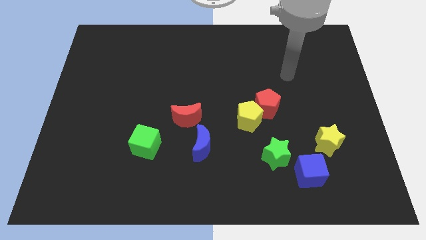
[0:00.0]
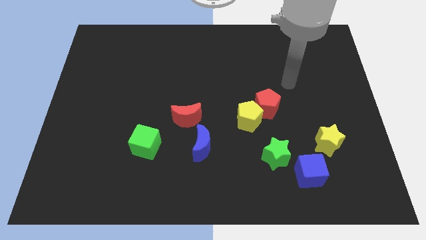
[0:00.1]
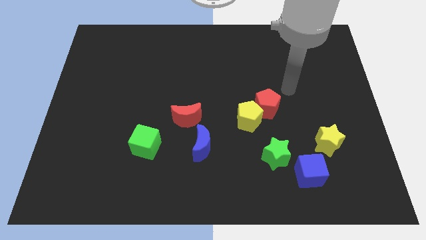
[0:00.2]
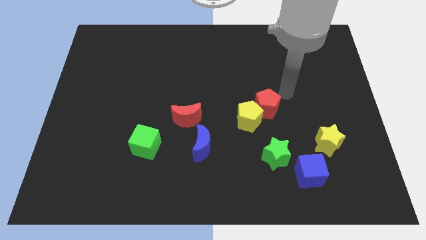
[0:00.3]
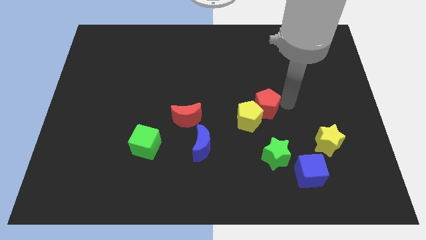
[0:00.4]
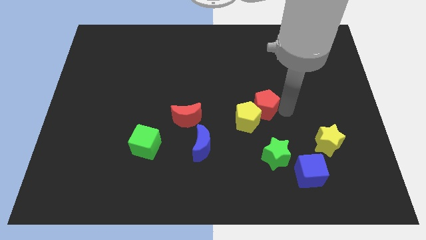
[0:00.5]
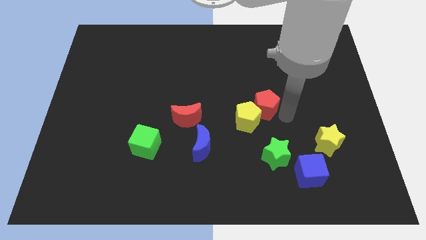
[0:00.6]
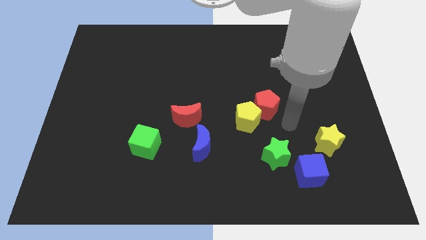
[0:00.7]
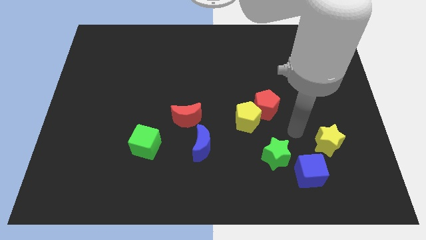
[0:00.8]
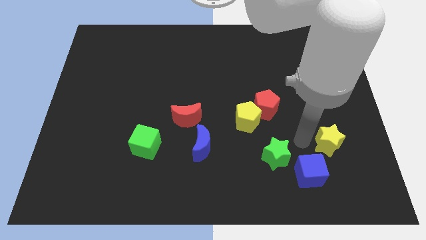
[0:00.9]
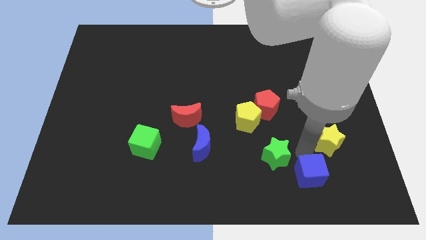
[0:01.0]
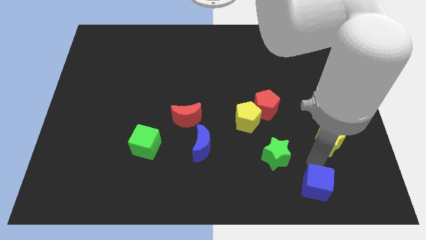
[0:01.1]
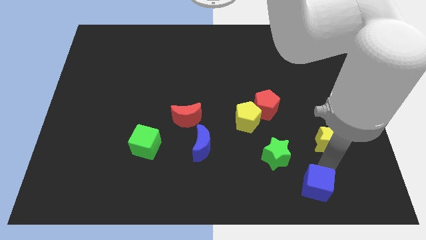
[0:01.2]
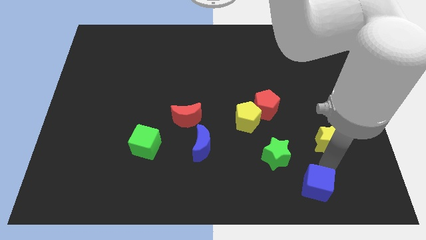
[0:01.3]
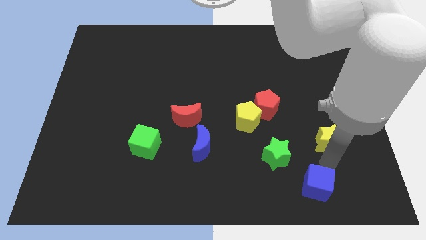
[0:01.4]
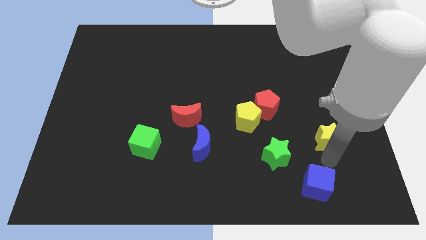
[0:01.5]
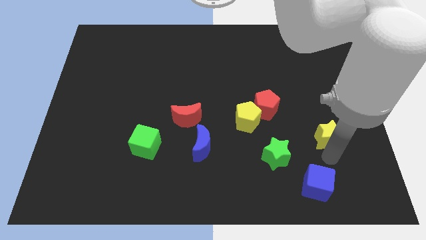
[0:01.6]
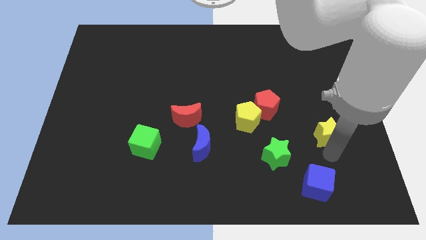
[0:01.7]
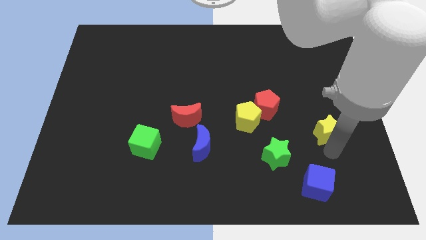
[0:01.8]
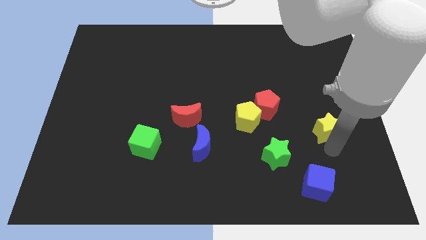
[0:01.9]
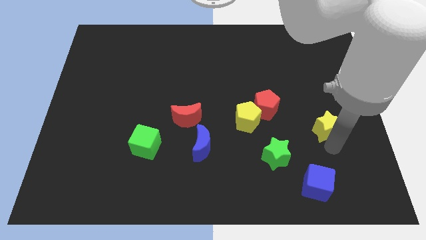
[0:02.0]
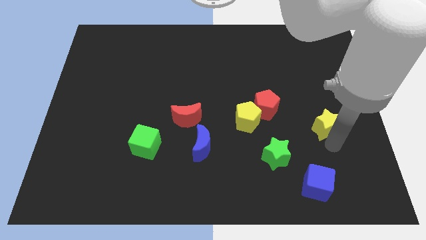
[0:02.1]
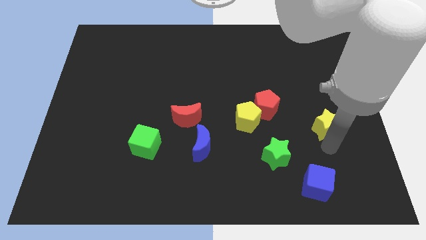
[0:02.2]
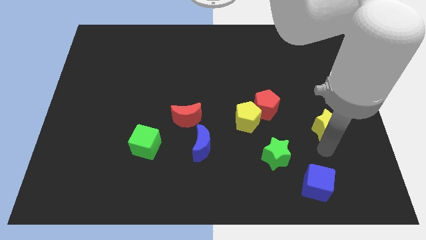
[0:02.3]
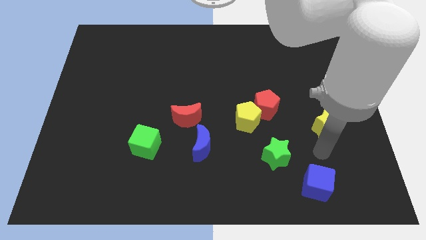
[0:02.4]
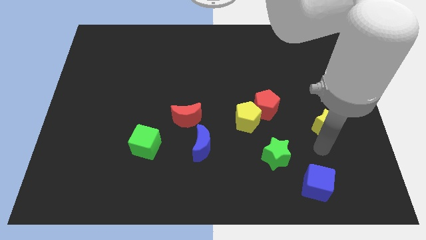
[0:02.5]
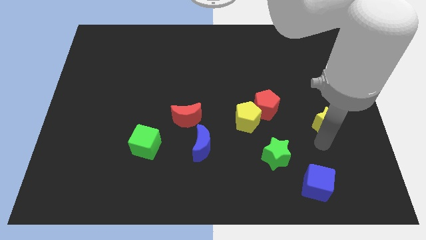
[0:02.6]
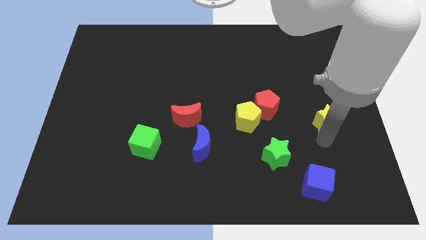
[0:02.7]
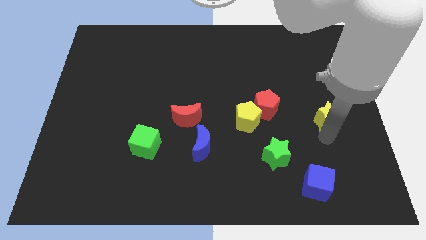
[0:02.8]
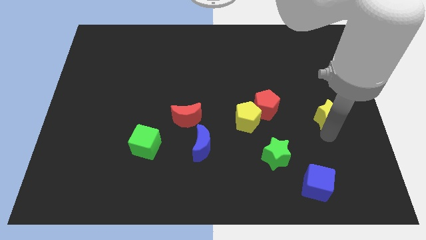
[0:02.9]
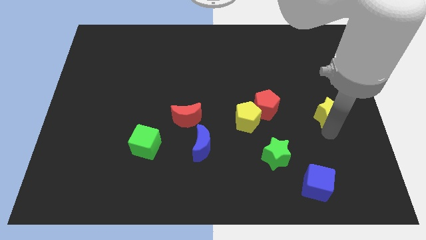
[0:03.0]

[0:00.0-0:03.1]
slightly slide the yellow star upwards

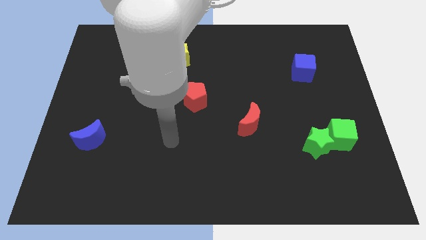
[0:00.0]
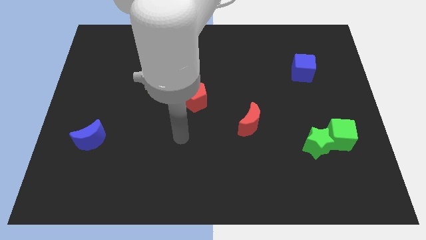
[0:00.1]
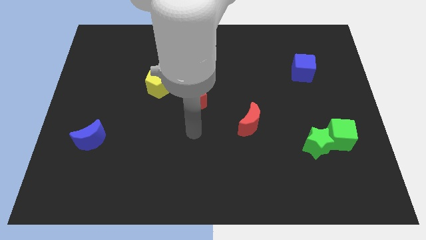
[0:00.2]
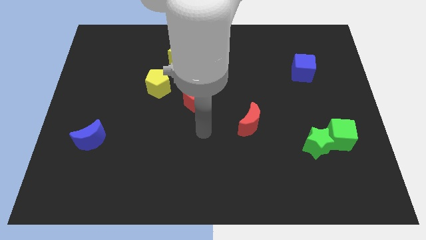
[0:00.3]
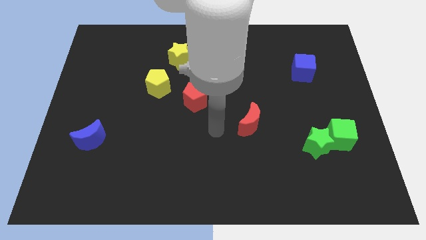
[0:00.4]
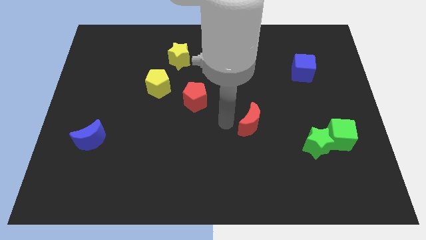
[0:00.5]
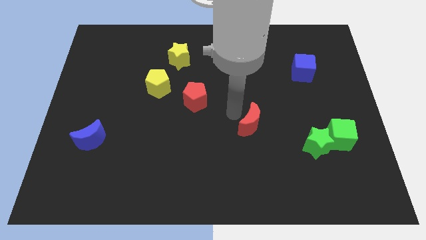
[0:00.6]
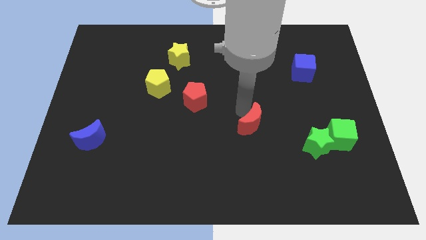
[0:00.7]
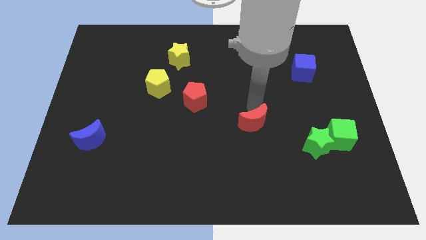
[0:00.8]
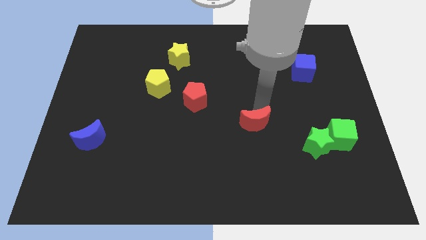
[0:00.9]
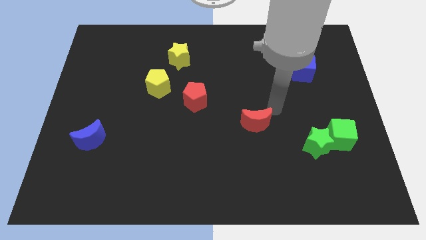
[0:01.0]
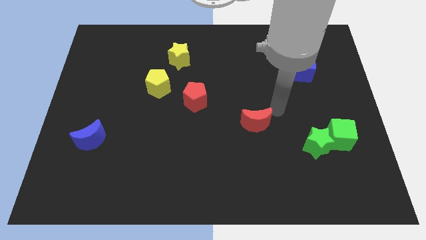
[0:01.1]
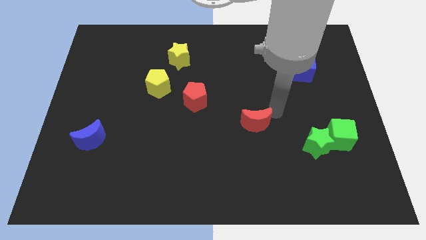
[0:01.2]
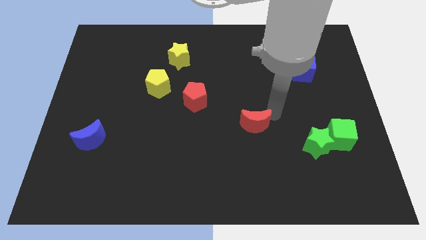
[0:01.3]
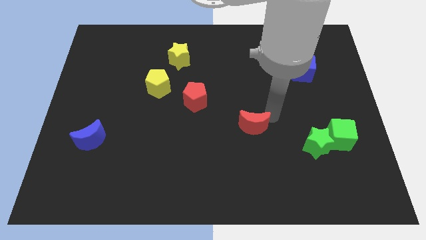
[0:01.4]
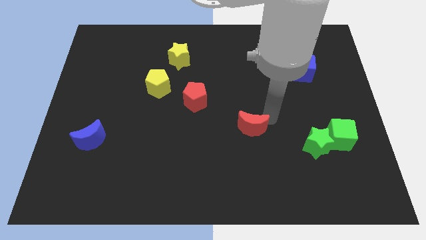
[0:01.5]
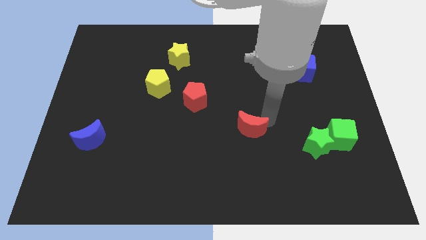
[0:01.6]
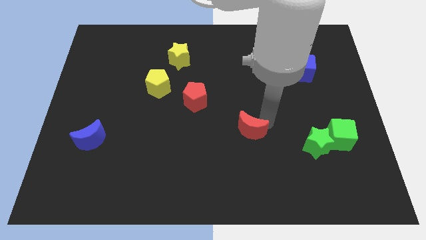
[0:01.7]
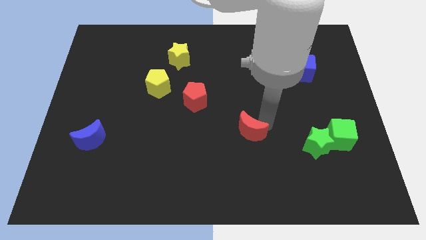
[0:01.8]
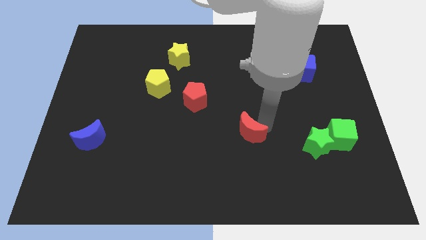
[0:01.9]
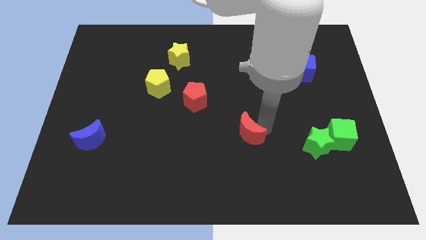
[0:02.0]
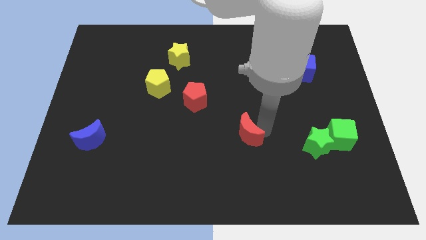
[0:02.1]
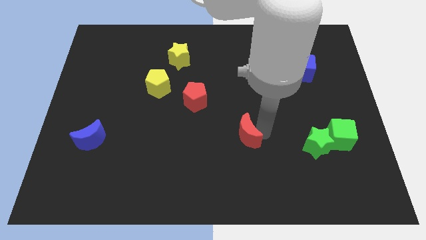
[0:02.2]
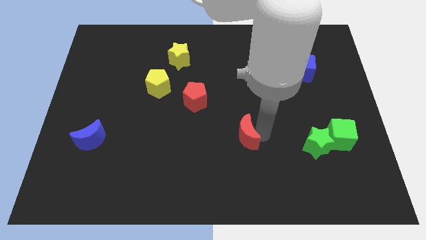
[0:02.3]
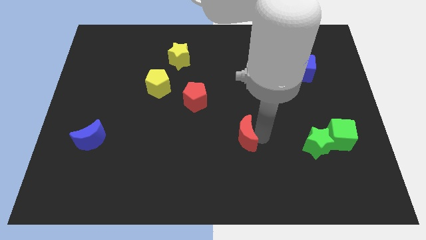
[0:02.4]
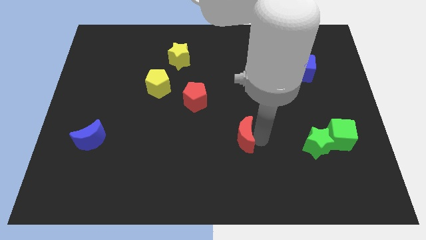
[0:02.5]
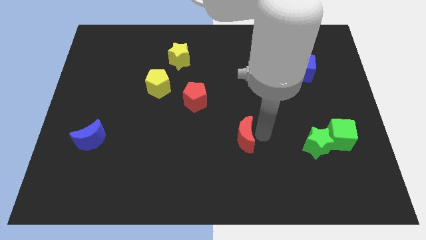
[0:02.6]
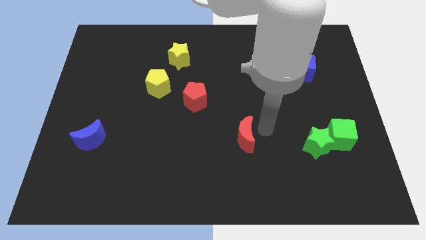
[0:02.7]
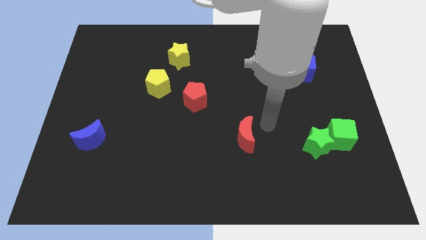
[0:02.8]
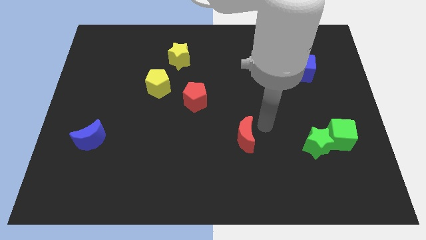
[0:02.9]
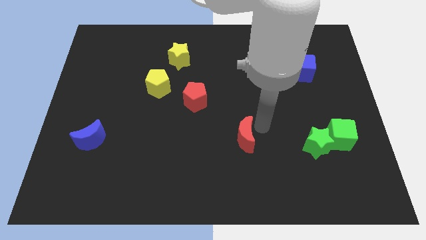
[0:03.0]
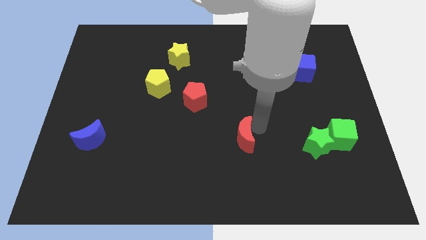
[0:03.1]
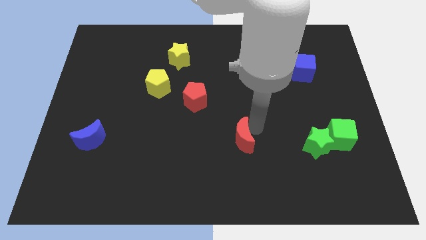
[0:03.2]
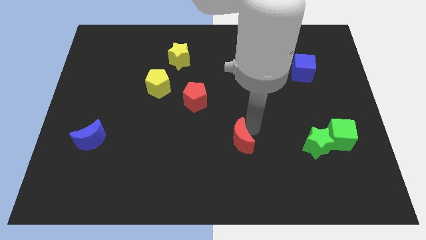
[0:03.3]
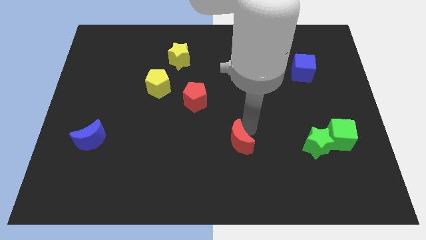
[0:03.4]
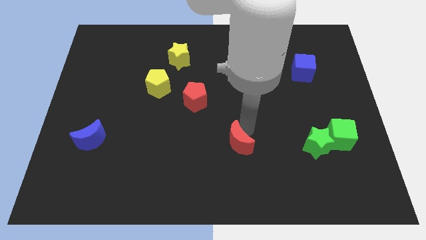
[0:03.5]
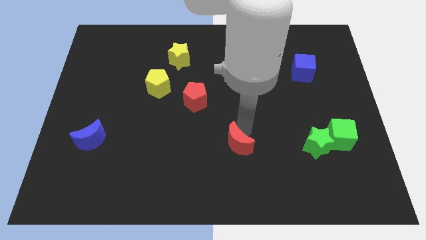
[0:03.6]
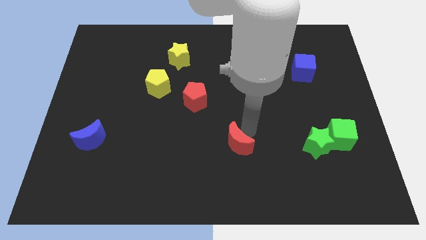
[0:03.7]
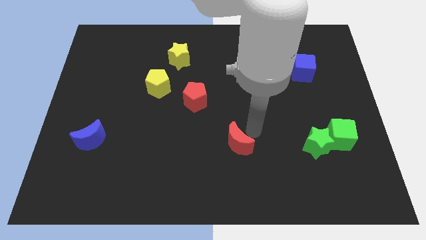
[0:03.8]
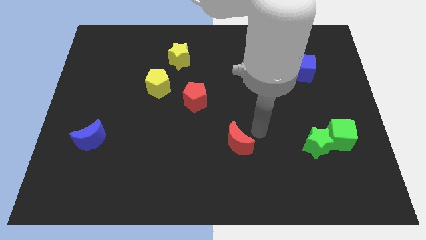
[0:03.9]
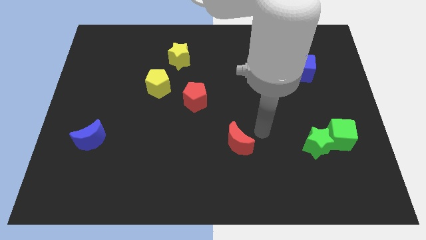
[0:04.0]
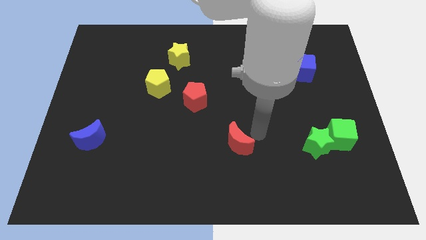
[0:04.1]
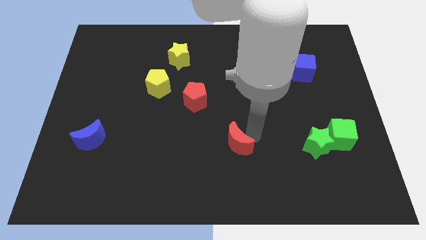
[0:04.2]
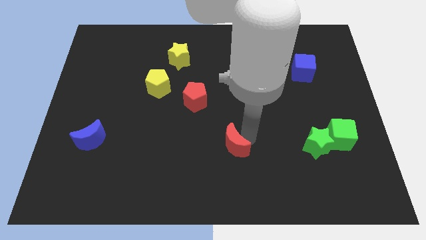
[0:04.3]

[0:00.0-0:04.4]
slightly move the red moon diagonally down and to the left

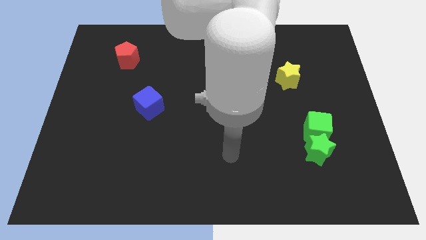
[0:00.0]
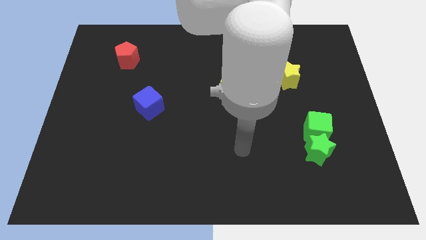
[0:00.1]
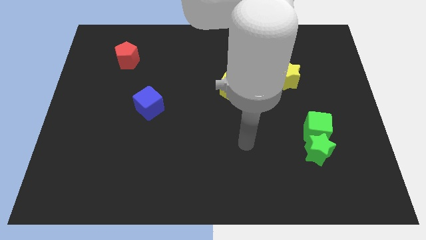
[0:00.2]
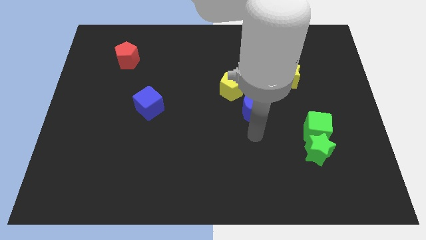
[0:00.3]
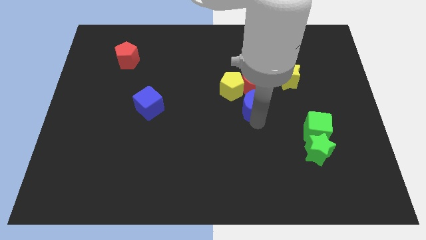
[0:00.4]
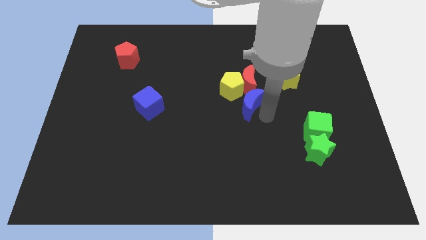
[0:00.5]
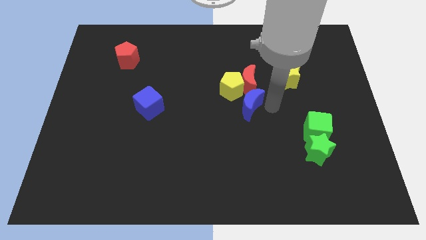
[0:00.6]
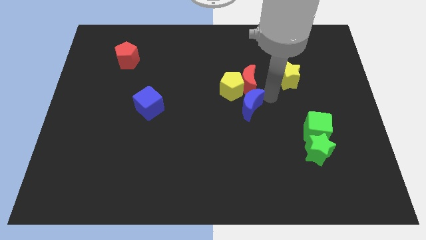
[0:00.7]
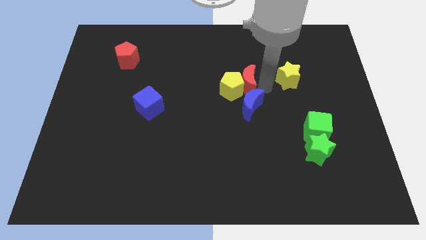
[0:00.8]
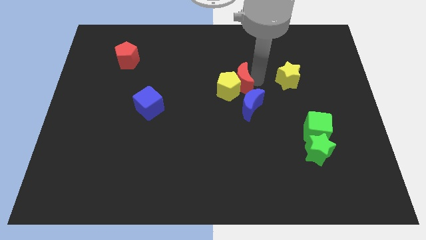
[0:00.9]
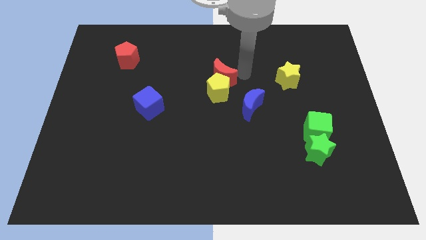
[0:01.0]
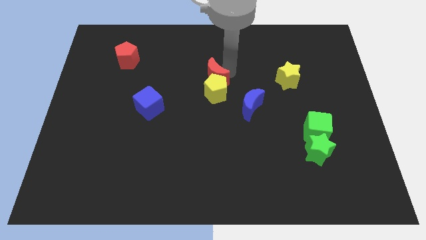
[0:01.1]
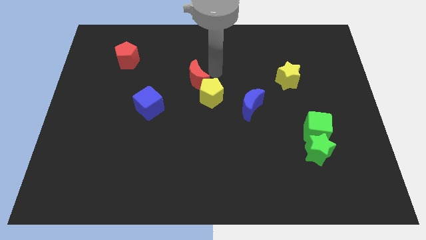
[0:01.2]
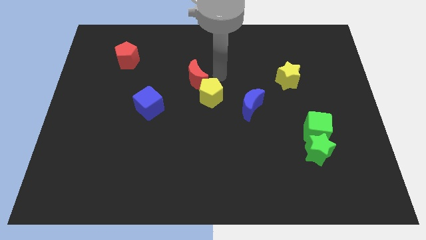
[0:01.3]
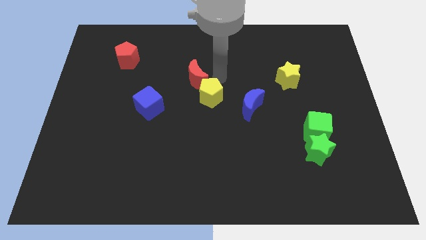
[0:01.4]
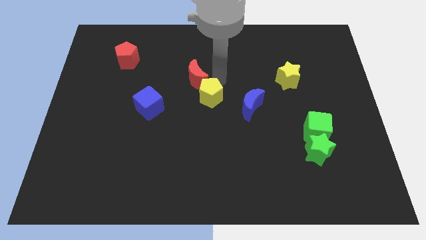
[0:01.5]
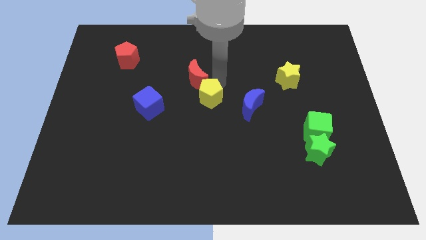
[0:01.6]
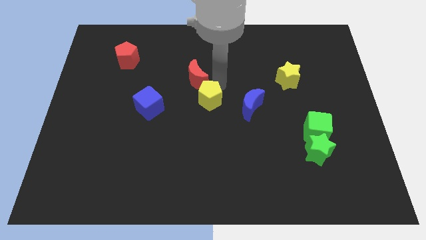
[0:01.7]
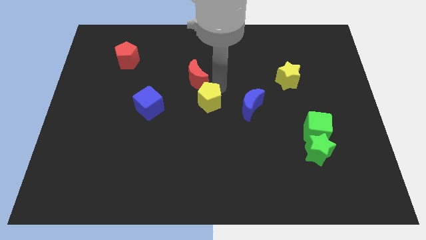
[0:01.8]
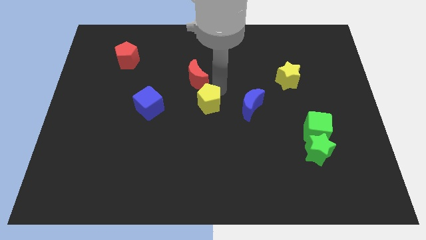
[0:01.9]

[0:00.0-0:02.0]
push the yellow pentagon slightly down and left diagonally
